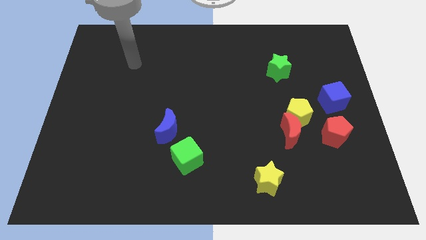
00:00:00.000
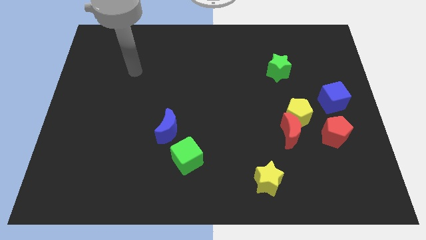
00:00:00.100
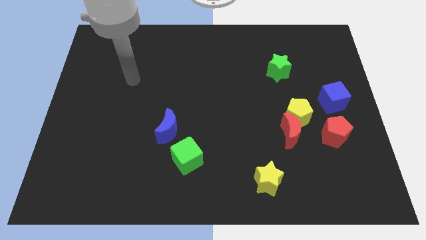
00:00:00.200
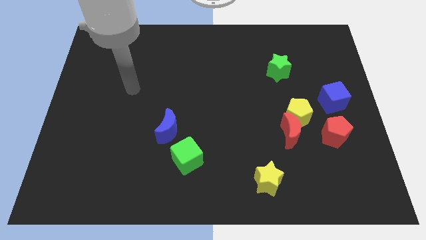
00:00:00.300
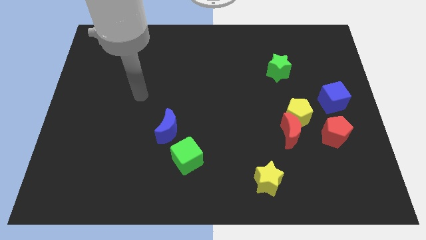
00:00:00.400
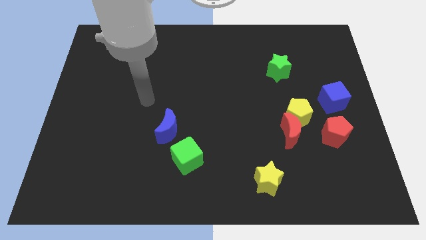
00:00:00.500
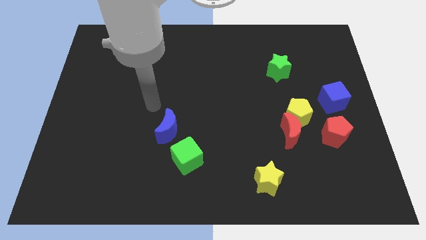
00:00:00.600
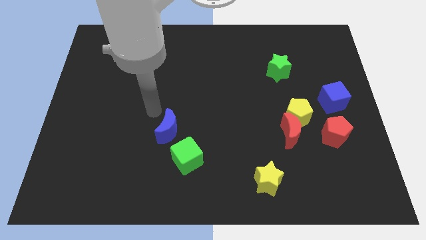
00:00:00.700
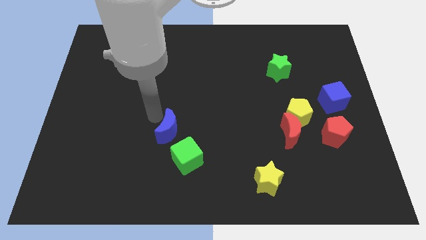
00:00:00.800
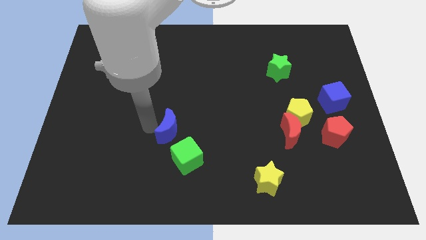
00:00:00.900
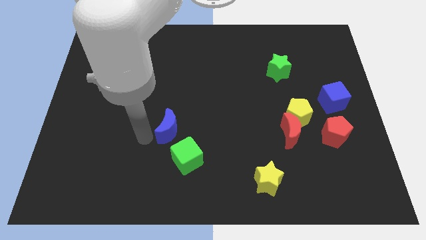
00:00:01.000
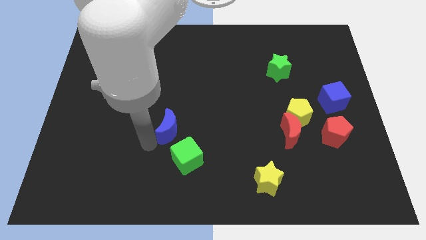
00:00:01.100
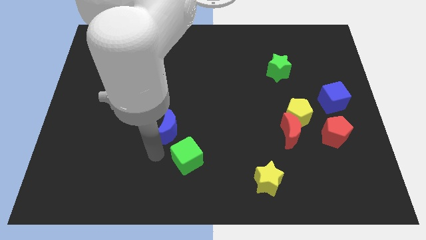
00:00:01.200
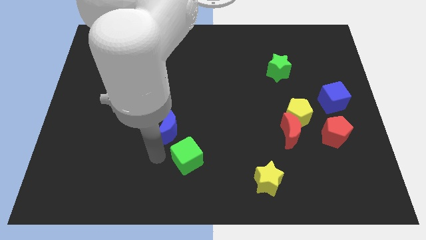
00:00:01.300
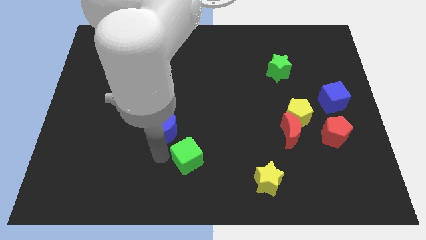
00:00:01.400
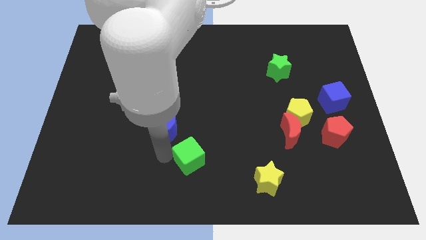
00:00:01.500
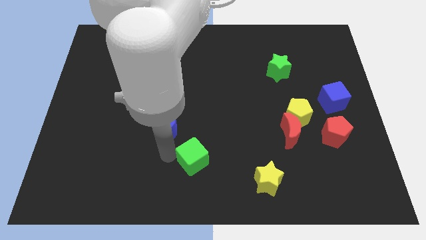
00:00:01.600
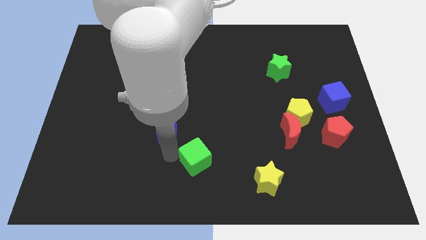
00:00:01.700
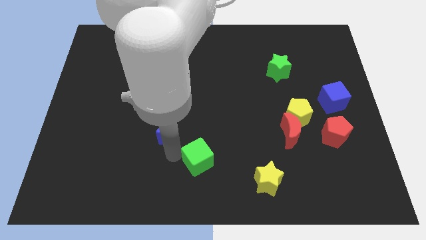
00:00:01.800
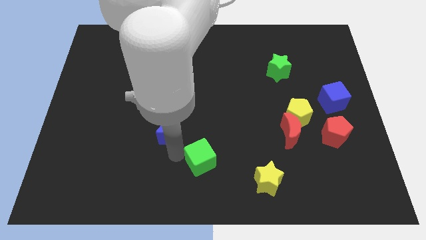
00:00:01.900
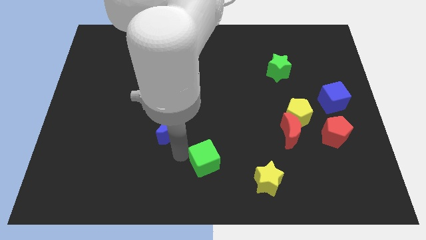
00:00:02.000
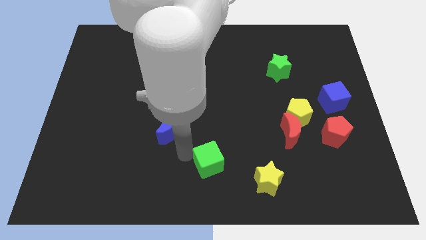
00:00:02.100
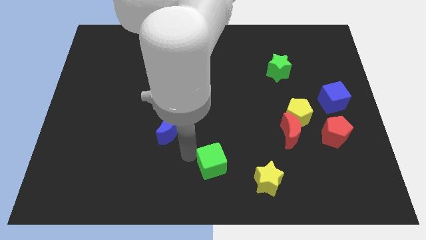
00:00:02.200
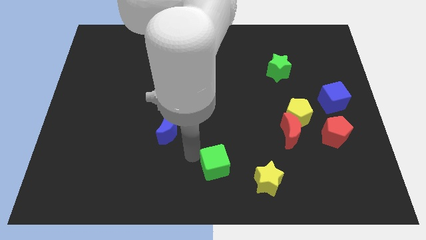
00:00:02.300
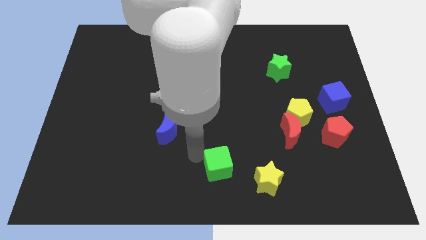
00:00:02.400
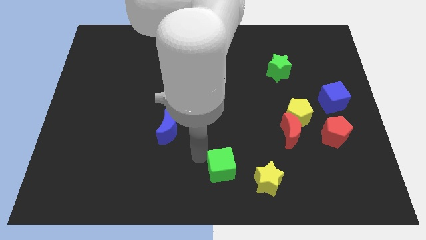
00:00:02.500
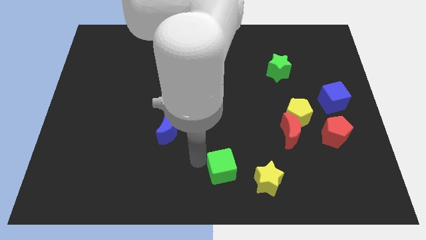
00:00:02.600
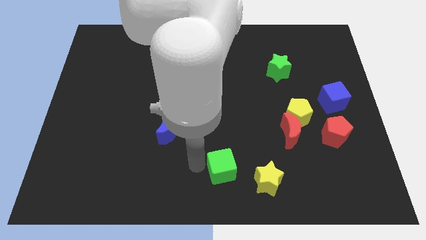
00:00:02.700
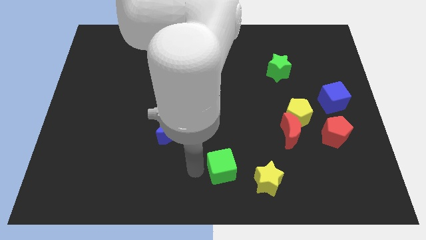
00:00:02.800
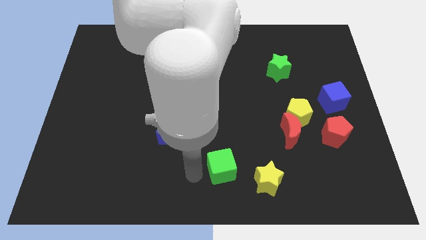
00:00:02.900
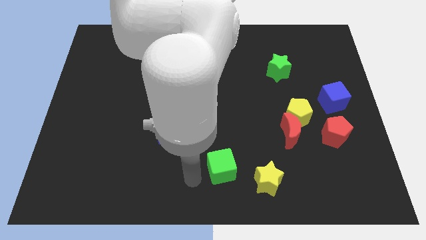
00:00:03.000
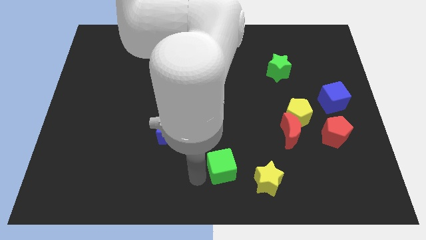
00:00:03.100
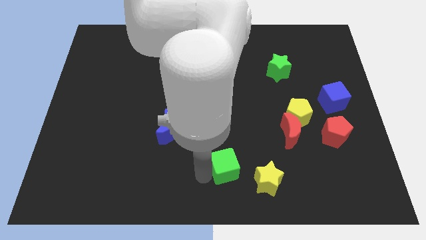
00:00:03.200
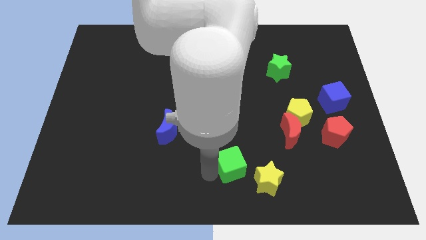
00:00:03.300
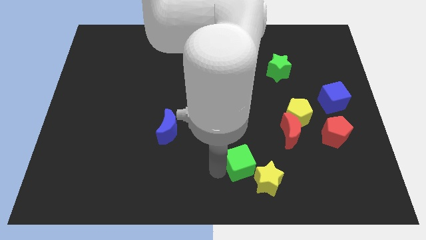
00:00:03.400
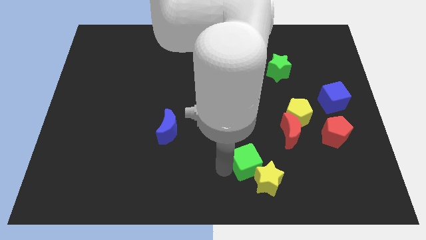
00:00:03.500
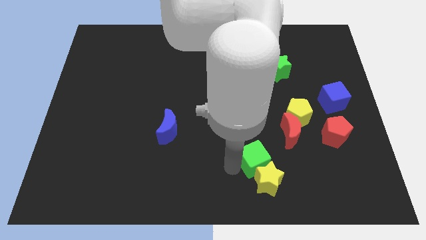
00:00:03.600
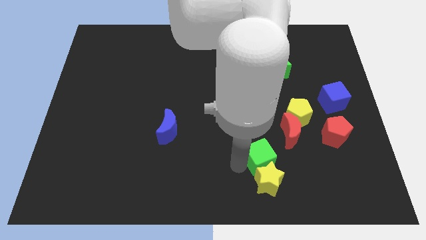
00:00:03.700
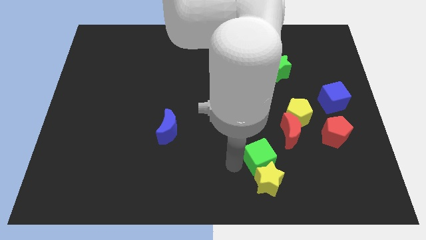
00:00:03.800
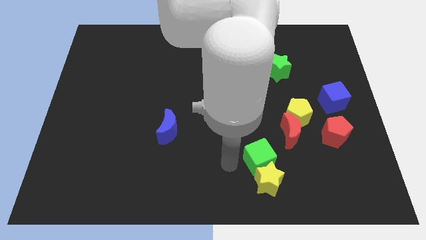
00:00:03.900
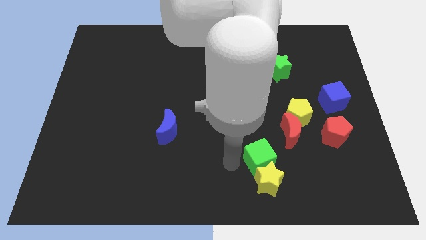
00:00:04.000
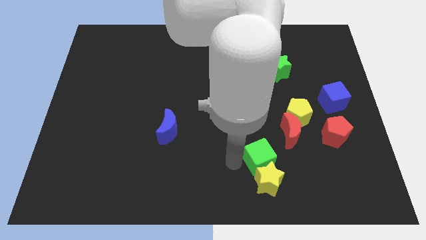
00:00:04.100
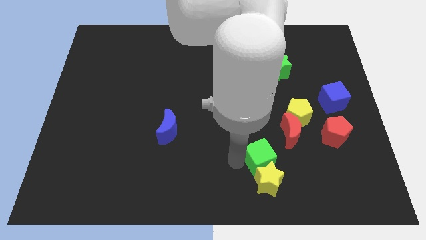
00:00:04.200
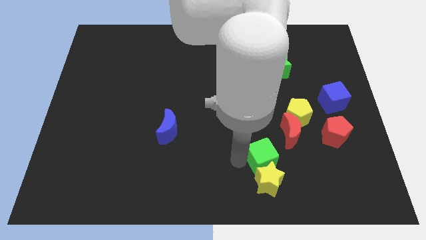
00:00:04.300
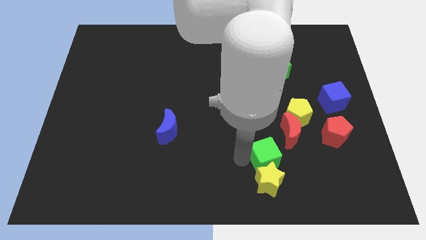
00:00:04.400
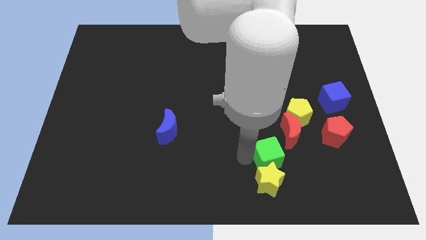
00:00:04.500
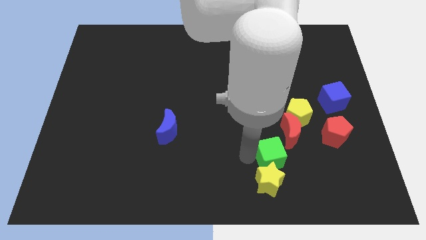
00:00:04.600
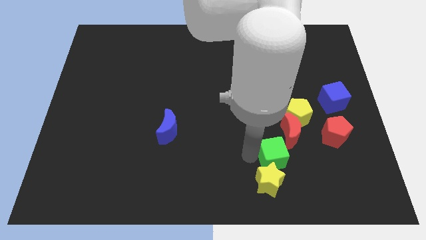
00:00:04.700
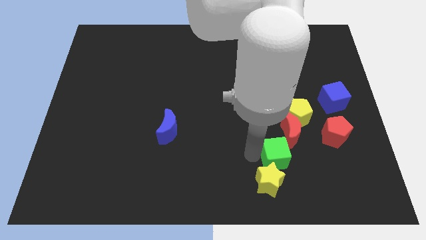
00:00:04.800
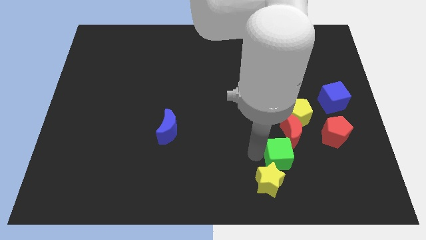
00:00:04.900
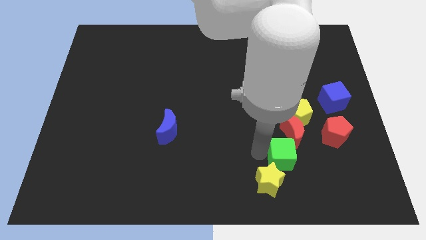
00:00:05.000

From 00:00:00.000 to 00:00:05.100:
move the green cube right

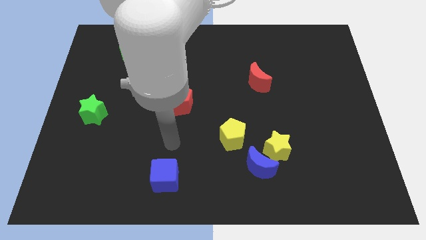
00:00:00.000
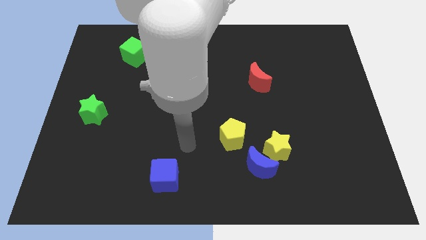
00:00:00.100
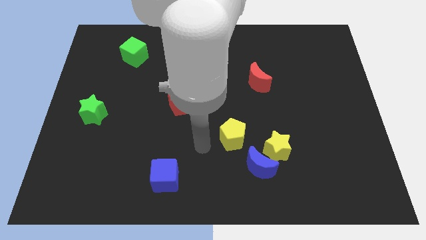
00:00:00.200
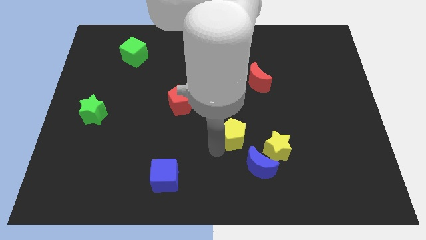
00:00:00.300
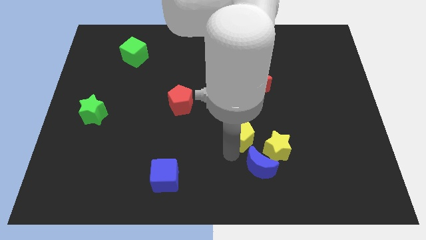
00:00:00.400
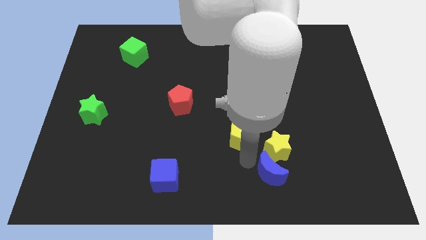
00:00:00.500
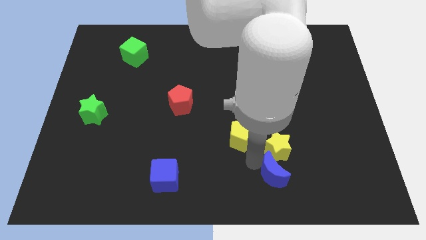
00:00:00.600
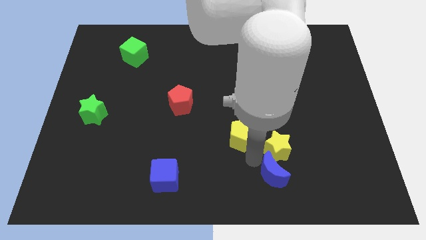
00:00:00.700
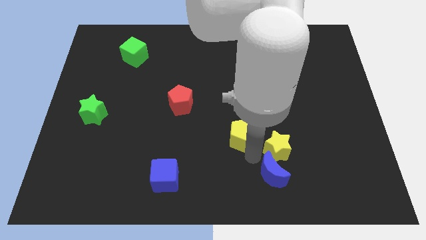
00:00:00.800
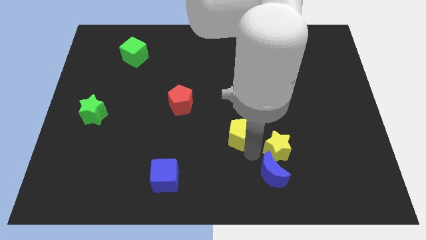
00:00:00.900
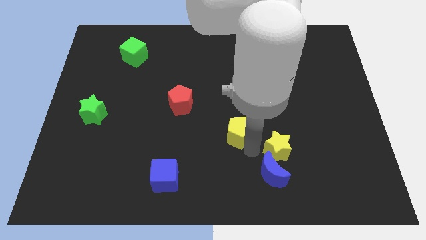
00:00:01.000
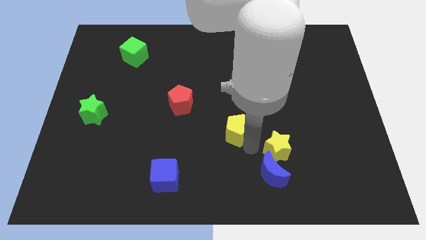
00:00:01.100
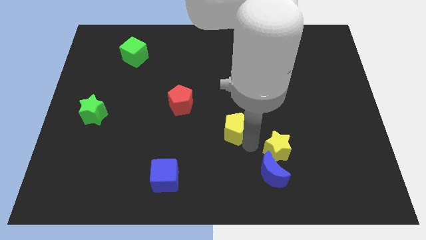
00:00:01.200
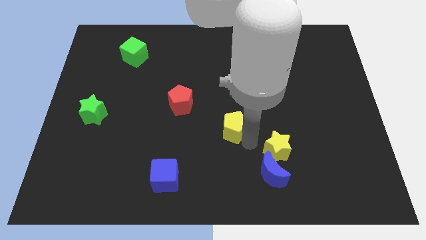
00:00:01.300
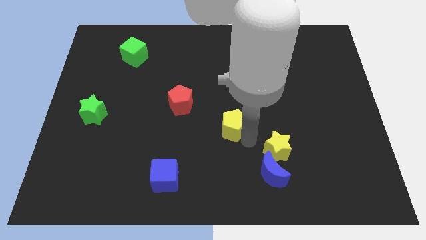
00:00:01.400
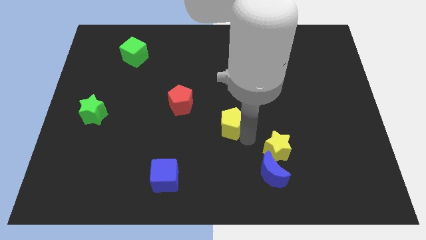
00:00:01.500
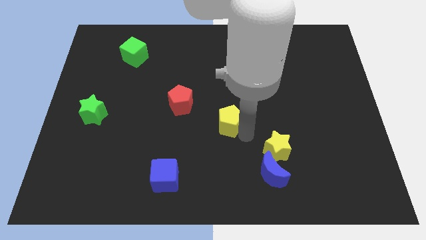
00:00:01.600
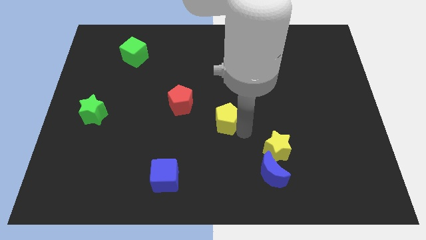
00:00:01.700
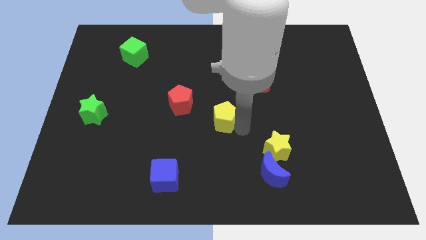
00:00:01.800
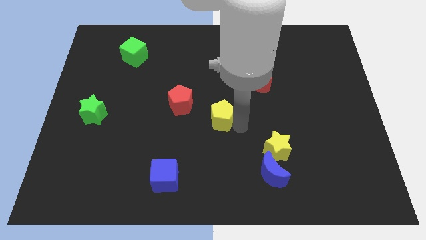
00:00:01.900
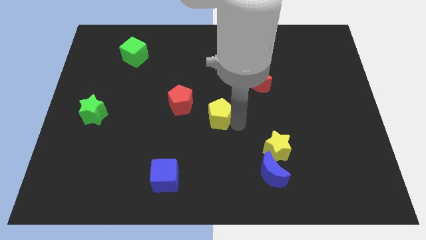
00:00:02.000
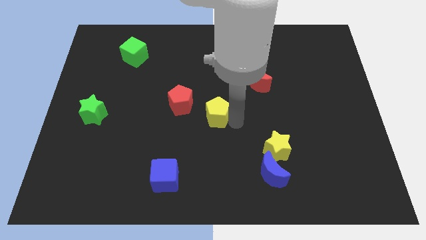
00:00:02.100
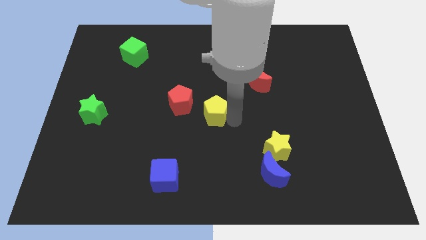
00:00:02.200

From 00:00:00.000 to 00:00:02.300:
push the yellow pentagon a little diagonally up and to the left

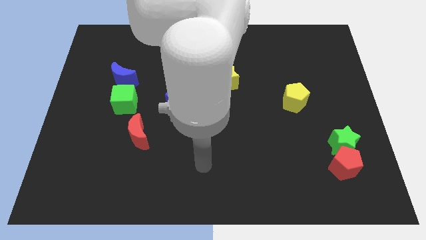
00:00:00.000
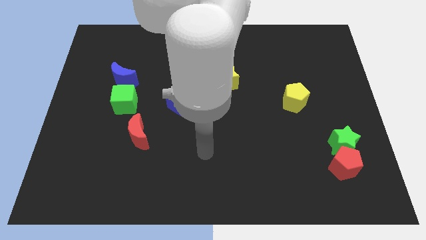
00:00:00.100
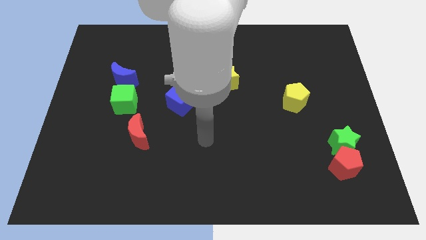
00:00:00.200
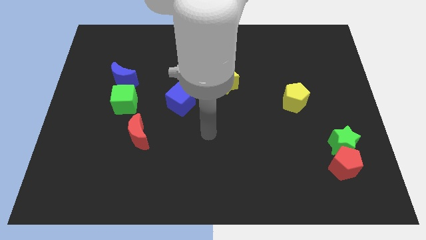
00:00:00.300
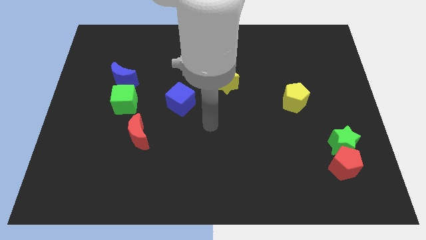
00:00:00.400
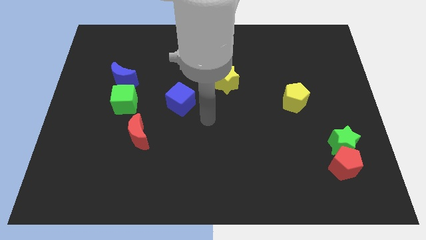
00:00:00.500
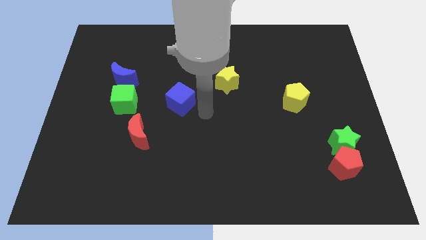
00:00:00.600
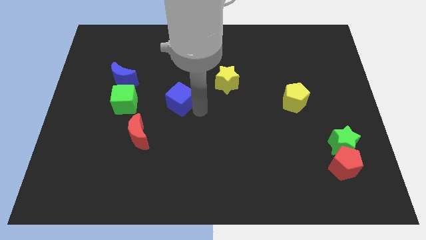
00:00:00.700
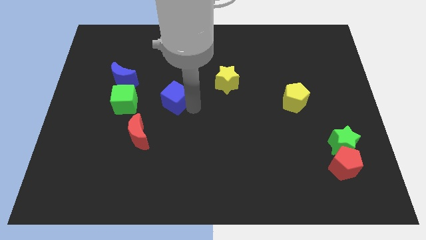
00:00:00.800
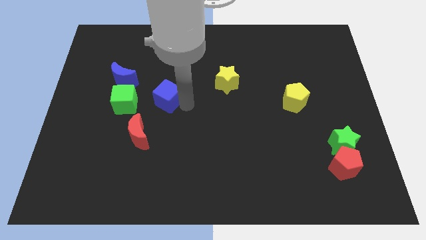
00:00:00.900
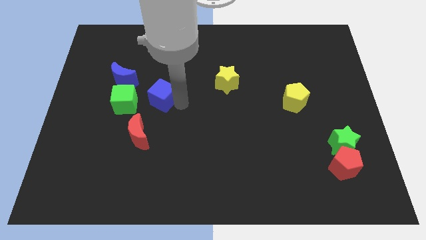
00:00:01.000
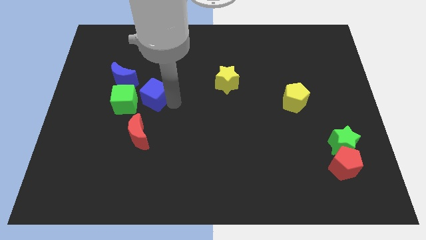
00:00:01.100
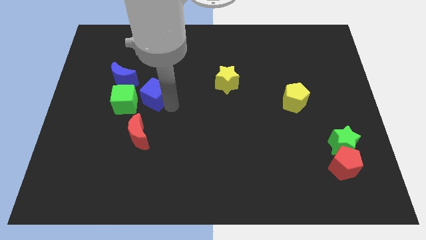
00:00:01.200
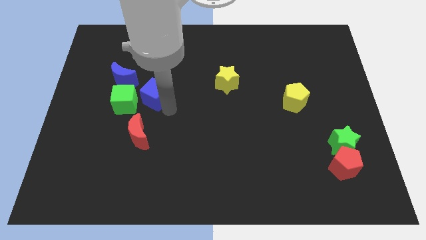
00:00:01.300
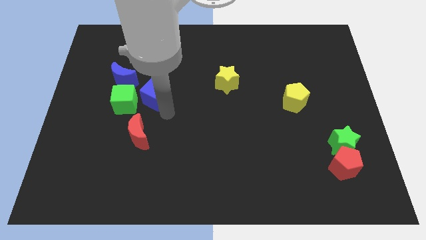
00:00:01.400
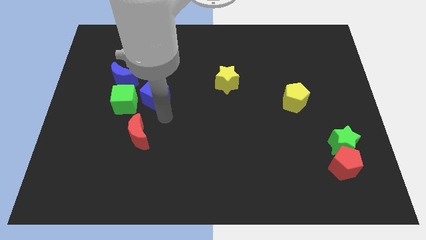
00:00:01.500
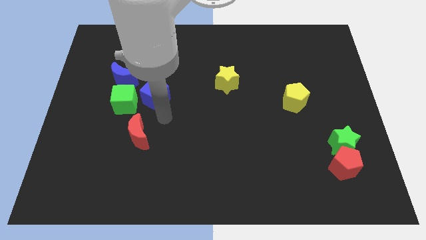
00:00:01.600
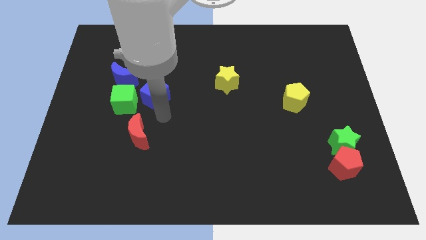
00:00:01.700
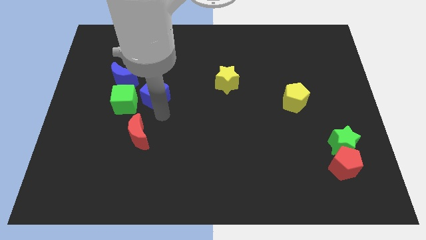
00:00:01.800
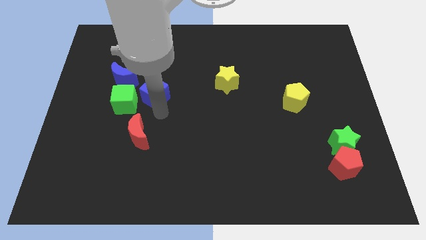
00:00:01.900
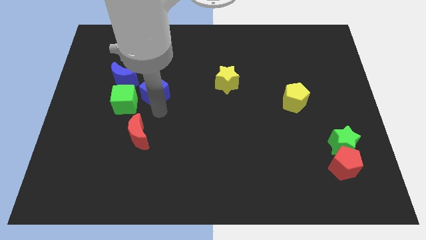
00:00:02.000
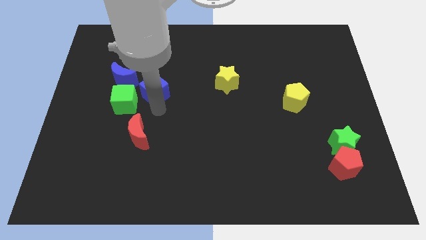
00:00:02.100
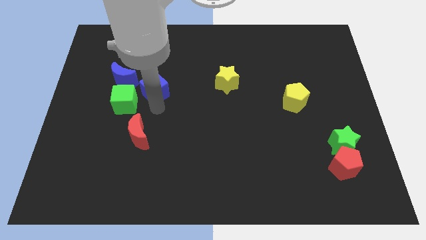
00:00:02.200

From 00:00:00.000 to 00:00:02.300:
slightly push the blue cube upwards and left diagonally
